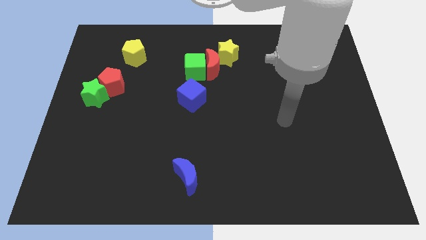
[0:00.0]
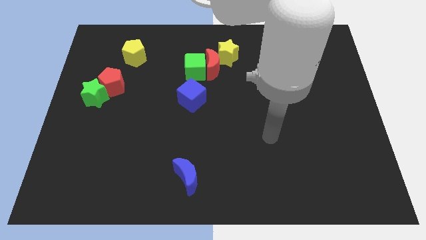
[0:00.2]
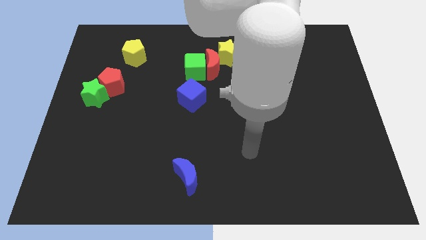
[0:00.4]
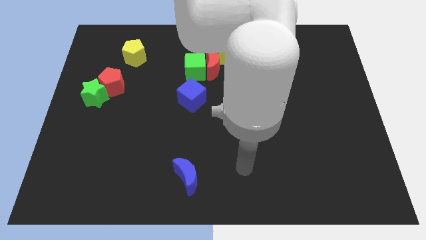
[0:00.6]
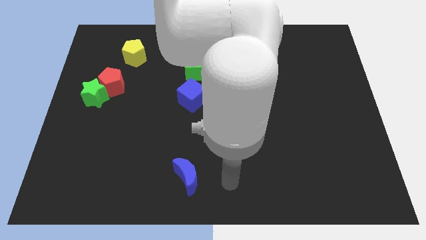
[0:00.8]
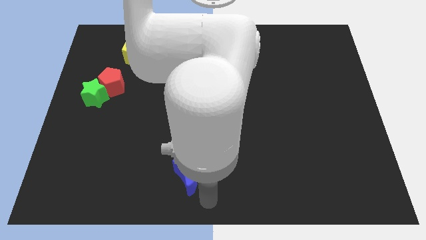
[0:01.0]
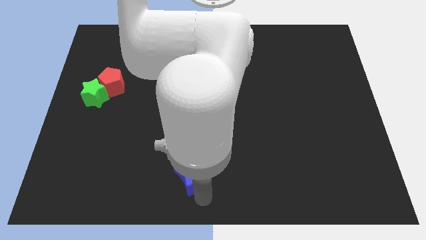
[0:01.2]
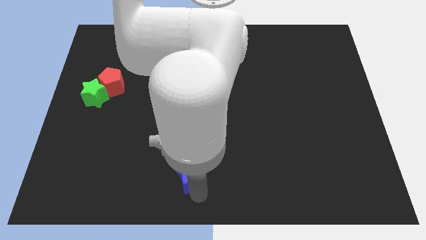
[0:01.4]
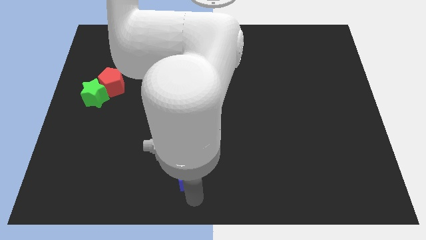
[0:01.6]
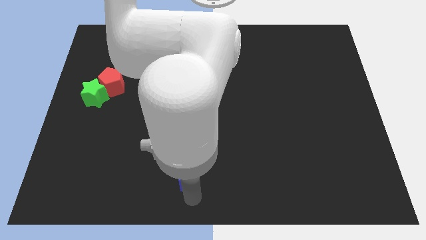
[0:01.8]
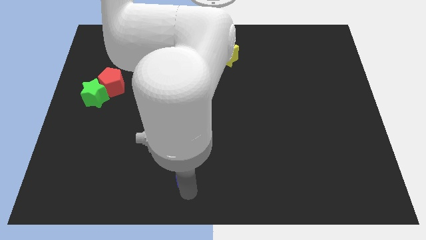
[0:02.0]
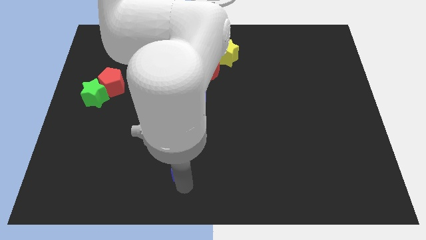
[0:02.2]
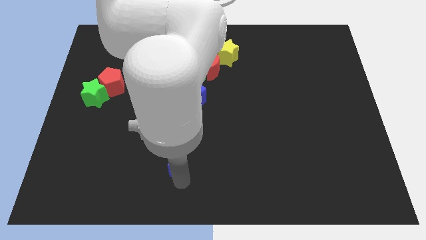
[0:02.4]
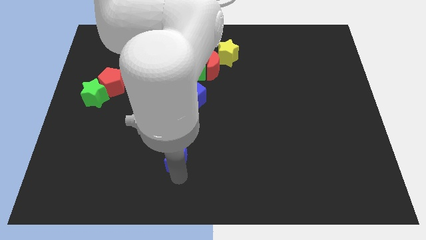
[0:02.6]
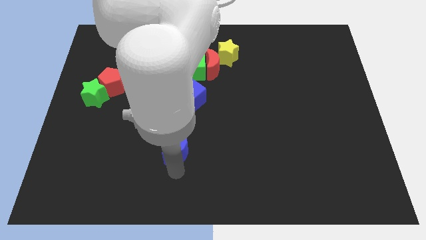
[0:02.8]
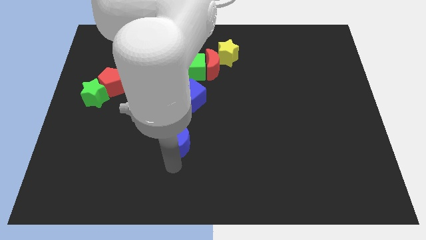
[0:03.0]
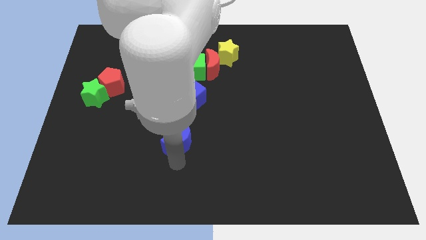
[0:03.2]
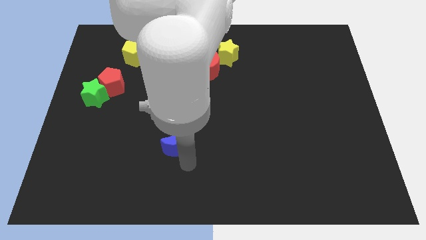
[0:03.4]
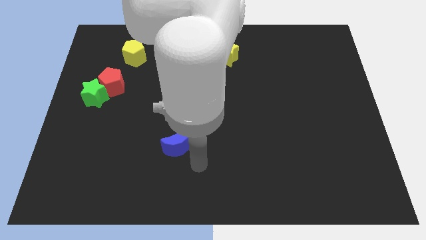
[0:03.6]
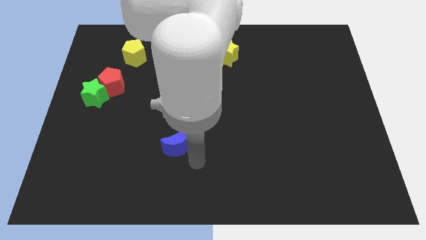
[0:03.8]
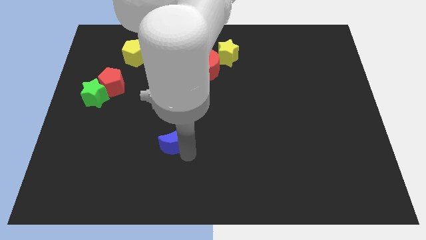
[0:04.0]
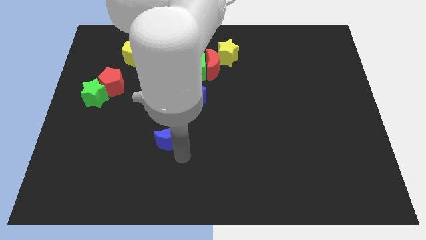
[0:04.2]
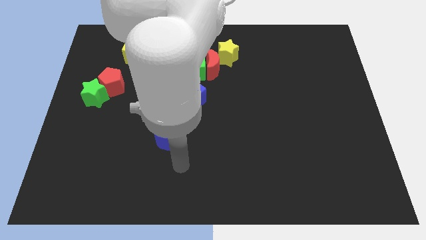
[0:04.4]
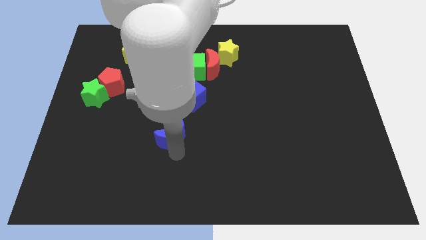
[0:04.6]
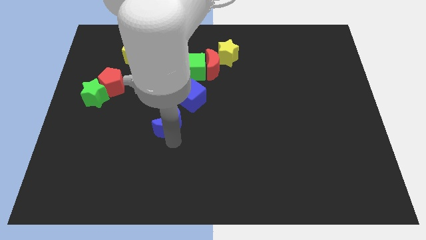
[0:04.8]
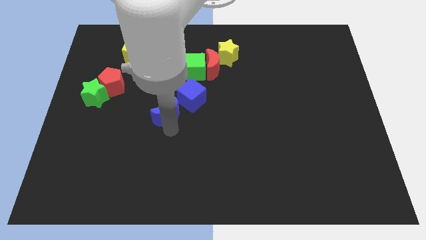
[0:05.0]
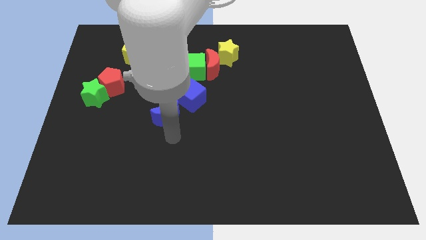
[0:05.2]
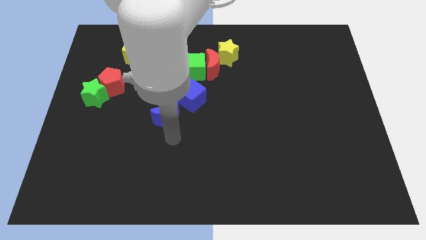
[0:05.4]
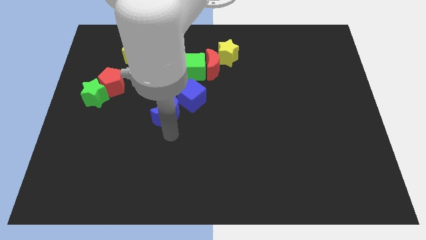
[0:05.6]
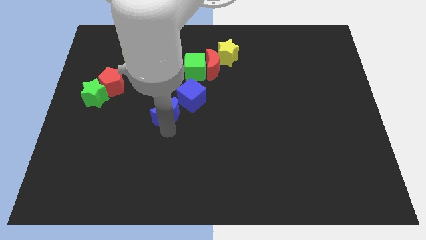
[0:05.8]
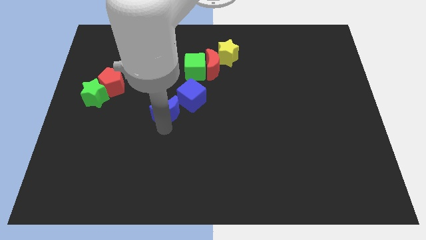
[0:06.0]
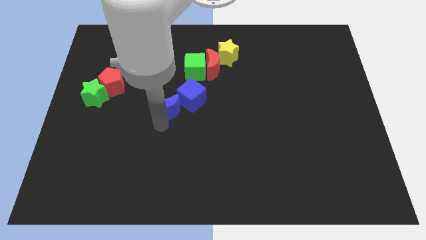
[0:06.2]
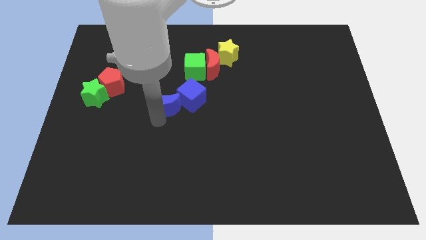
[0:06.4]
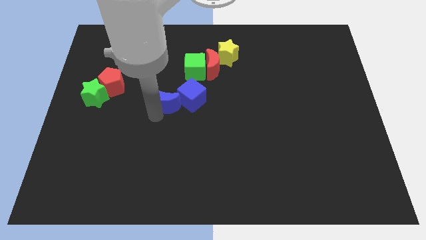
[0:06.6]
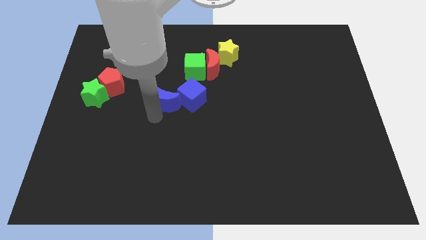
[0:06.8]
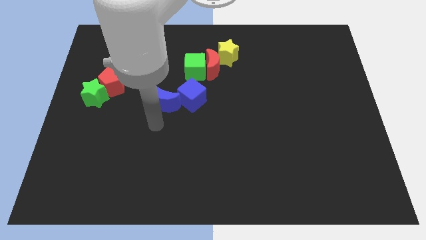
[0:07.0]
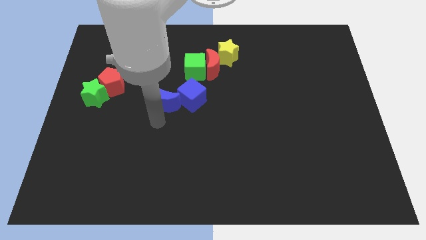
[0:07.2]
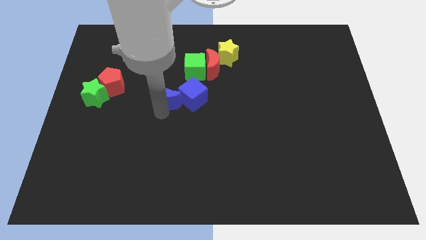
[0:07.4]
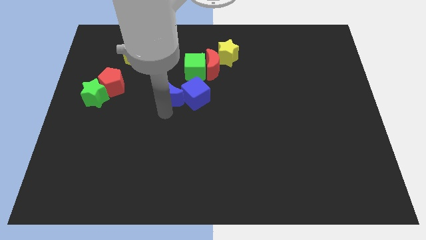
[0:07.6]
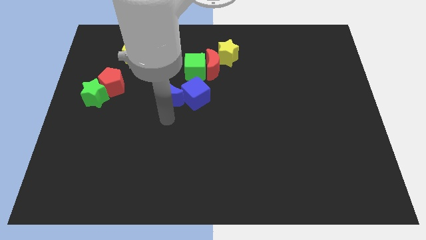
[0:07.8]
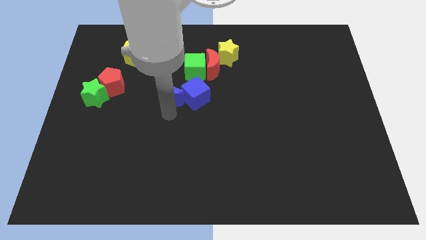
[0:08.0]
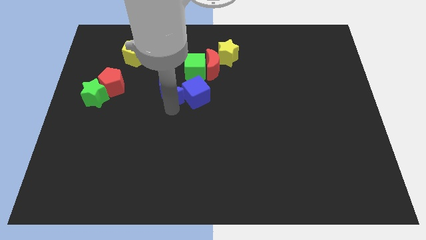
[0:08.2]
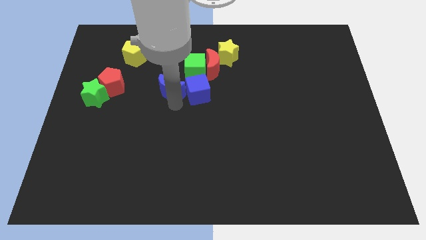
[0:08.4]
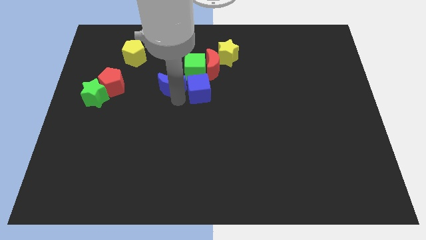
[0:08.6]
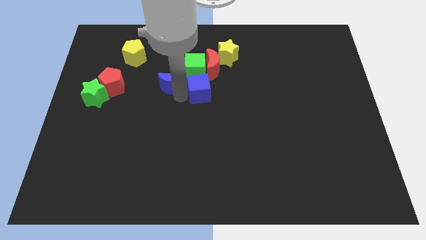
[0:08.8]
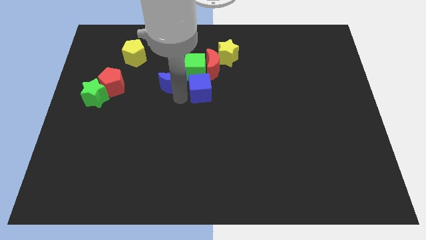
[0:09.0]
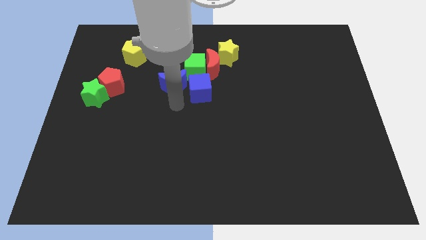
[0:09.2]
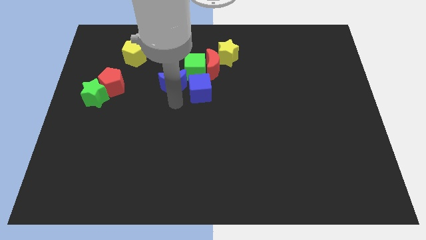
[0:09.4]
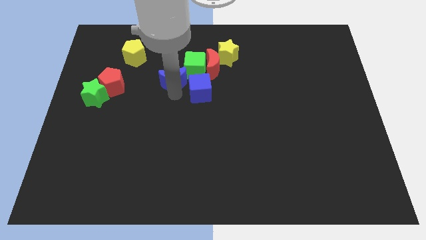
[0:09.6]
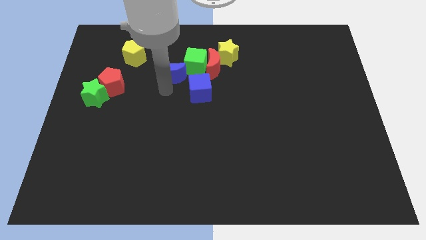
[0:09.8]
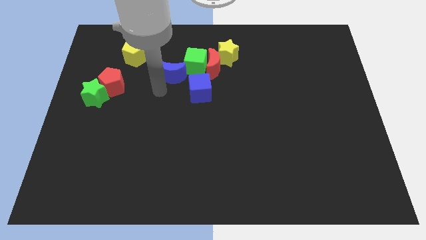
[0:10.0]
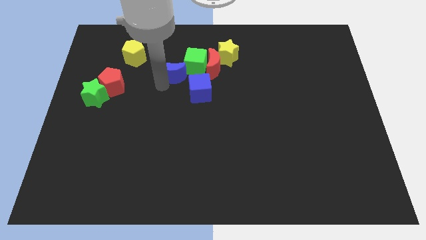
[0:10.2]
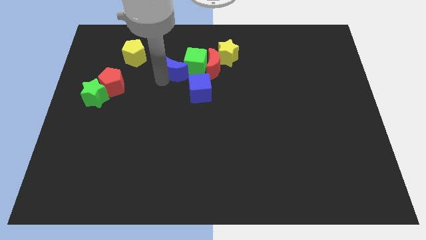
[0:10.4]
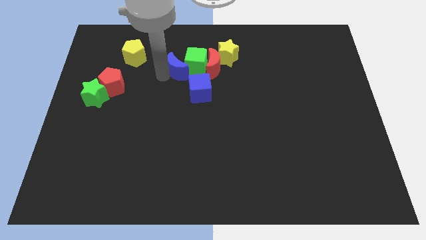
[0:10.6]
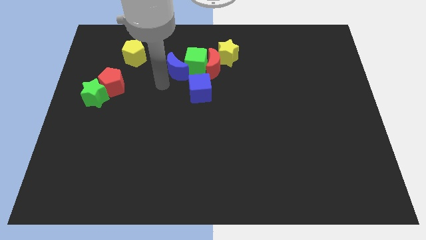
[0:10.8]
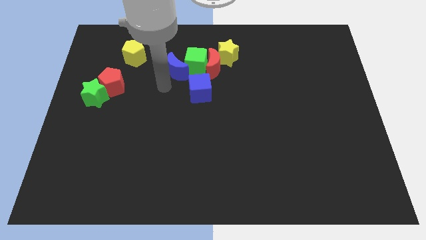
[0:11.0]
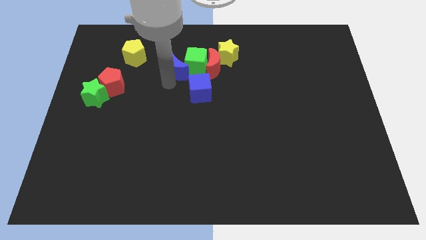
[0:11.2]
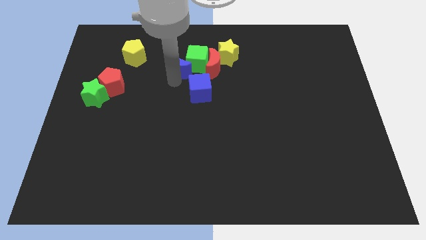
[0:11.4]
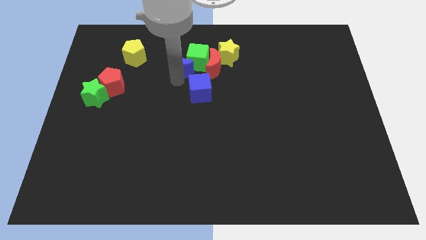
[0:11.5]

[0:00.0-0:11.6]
push the blue moon just left of the yellow star
